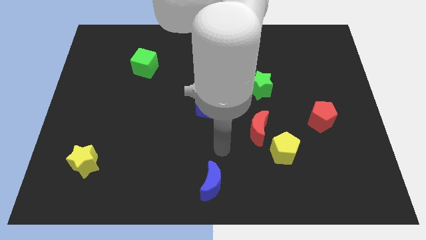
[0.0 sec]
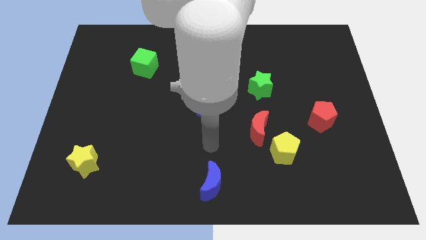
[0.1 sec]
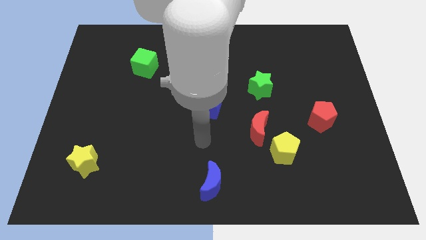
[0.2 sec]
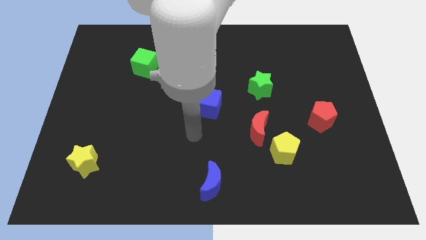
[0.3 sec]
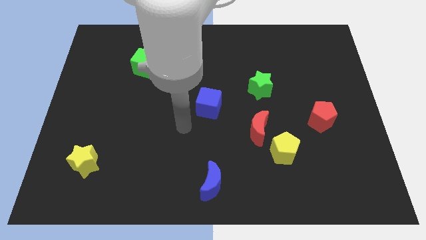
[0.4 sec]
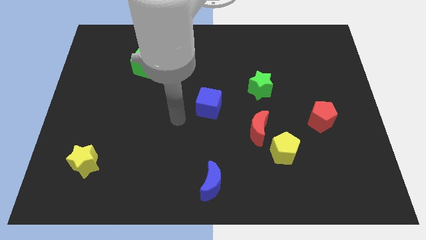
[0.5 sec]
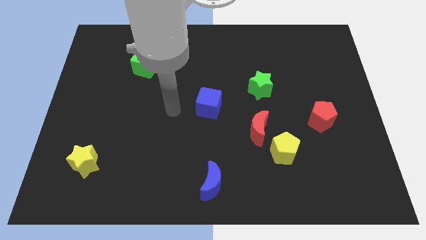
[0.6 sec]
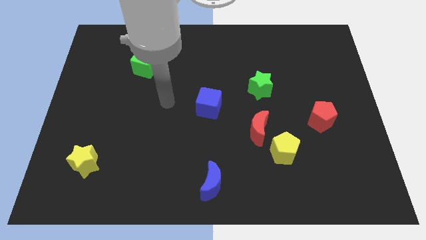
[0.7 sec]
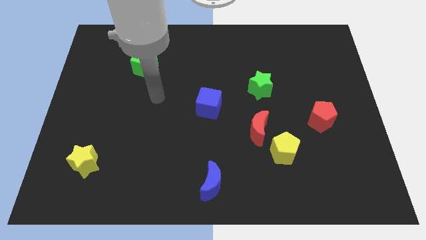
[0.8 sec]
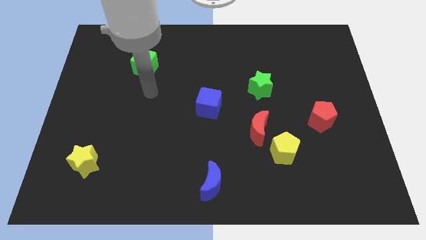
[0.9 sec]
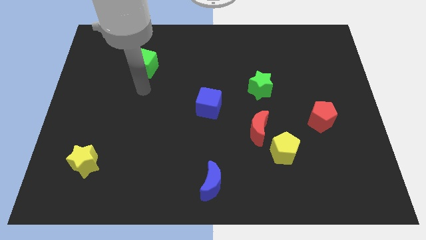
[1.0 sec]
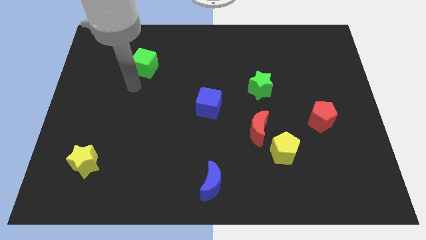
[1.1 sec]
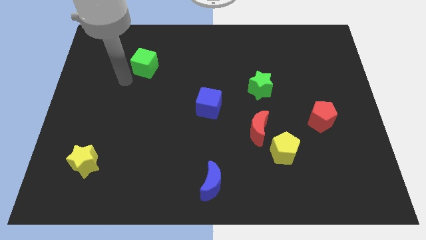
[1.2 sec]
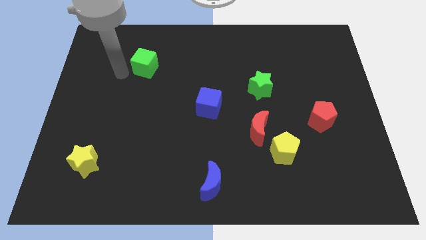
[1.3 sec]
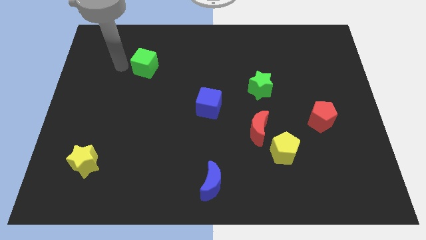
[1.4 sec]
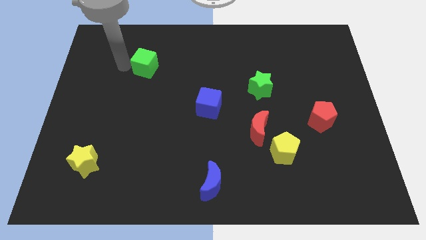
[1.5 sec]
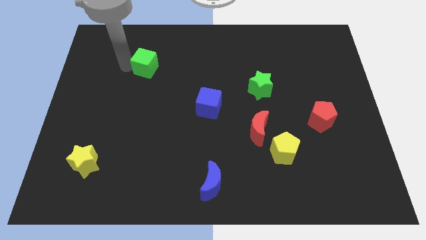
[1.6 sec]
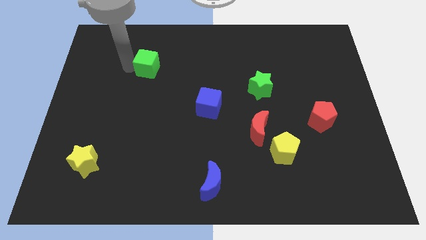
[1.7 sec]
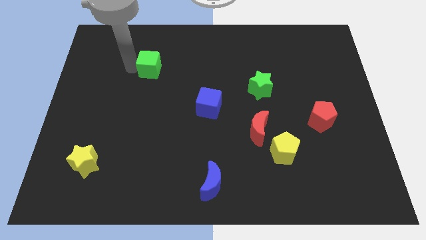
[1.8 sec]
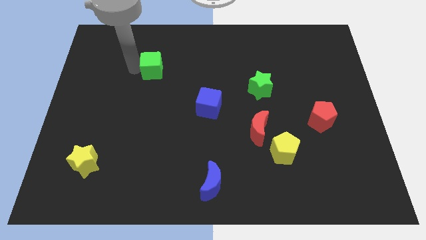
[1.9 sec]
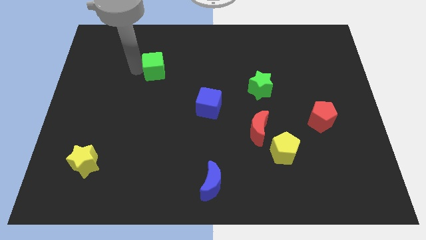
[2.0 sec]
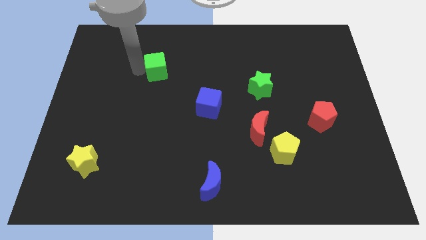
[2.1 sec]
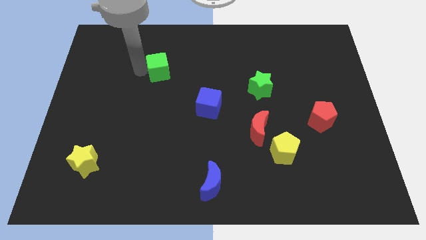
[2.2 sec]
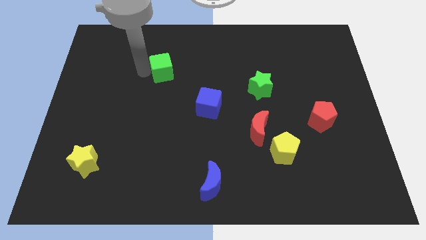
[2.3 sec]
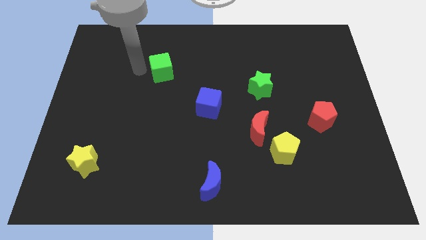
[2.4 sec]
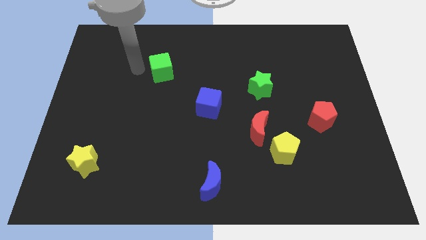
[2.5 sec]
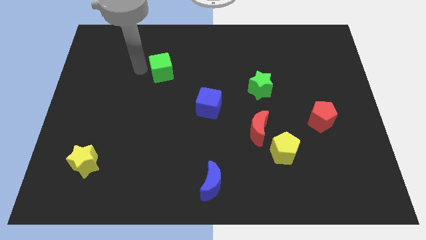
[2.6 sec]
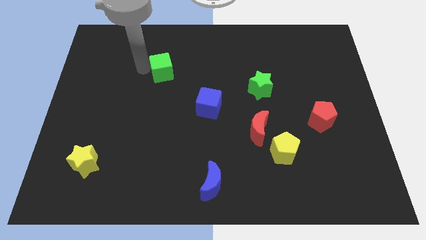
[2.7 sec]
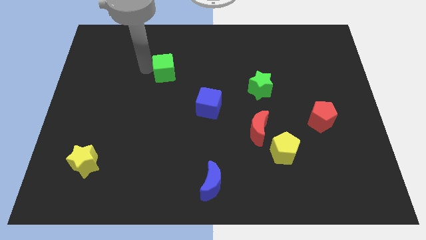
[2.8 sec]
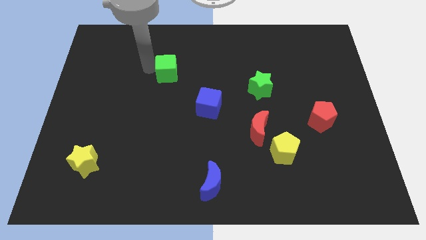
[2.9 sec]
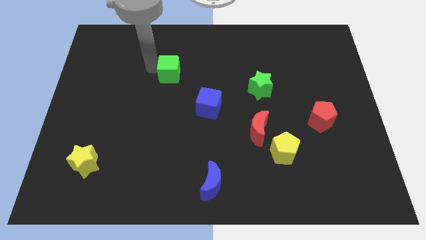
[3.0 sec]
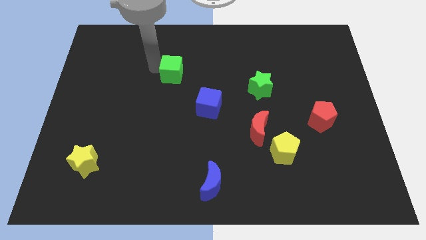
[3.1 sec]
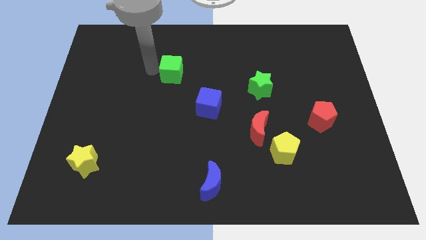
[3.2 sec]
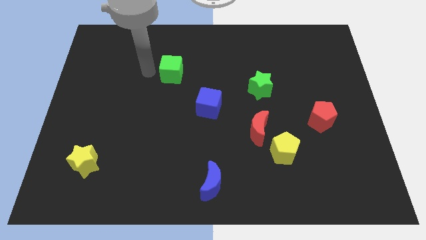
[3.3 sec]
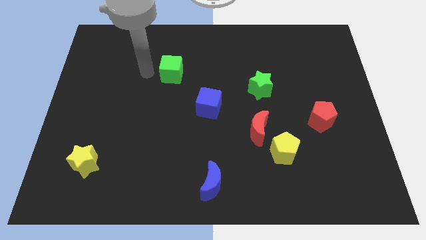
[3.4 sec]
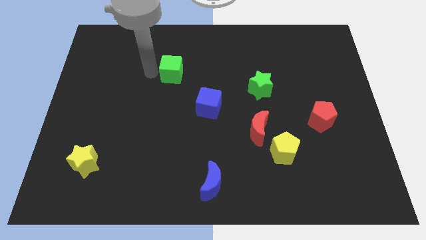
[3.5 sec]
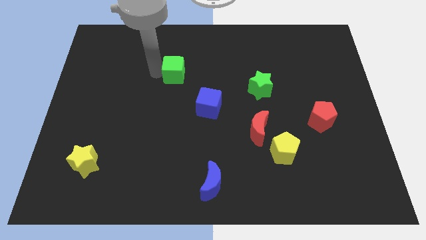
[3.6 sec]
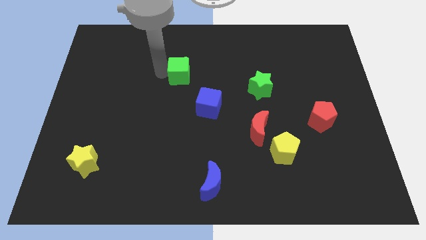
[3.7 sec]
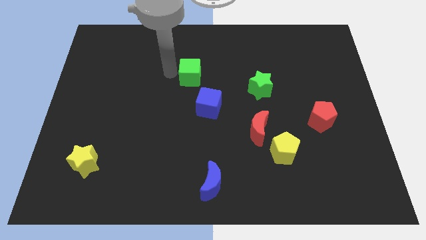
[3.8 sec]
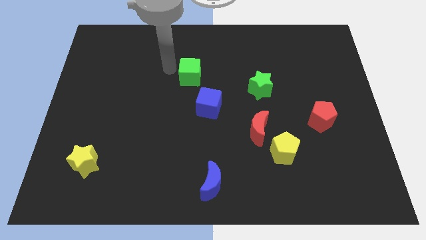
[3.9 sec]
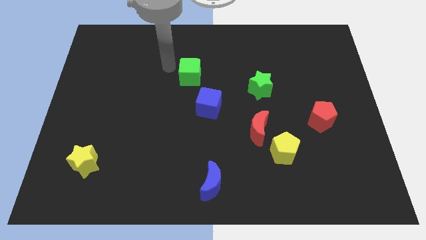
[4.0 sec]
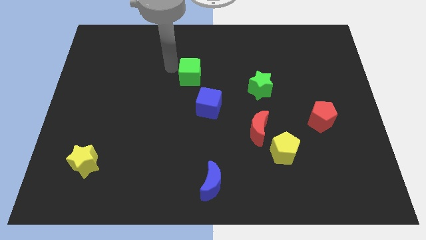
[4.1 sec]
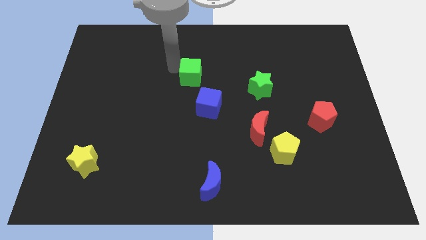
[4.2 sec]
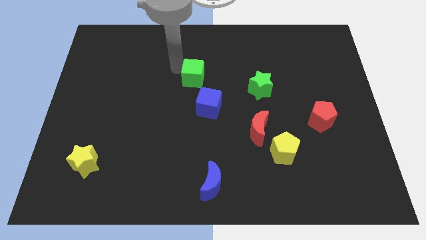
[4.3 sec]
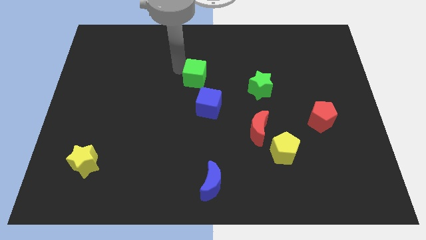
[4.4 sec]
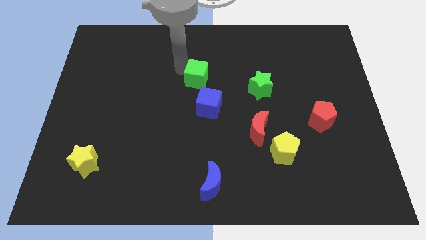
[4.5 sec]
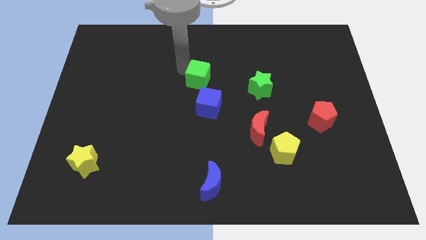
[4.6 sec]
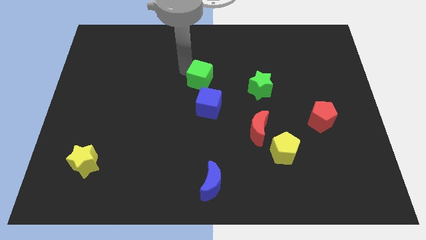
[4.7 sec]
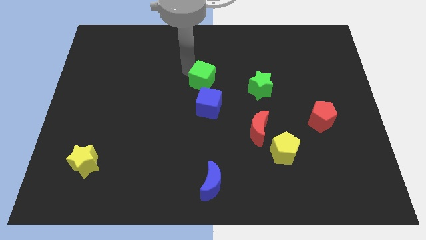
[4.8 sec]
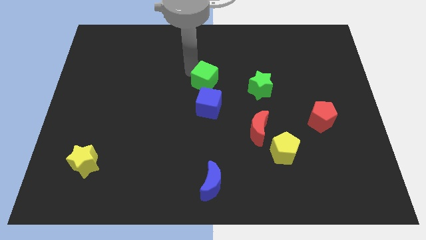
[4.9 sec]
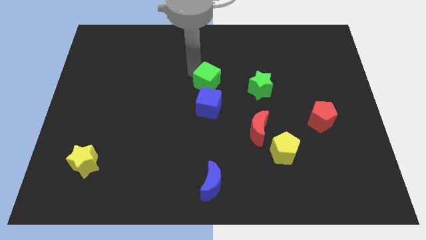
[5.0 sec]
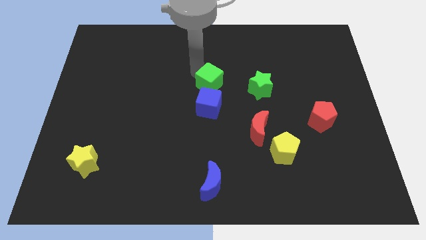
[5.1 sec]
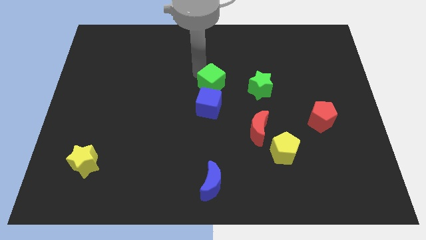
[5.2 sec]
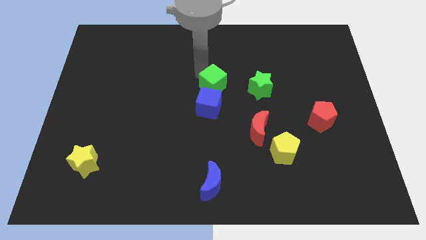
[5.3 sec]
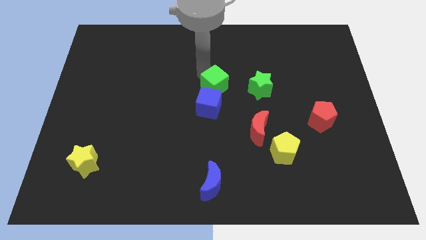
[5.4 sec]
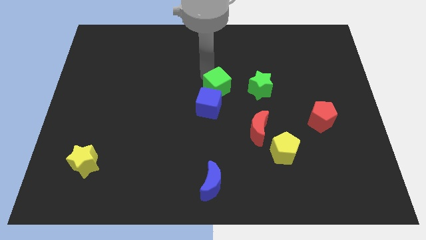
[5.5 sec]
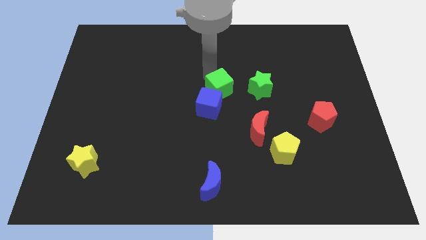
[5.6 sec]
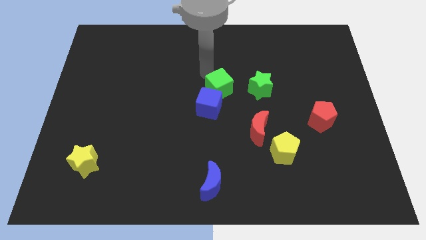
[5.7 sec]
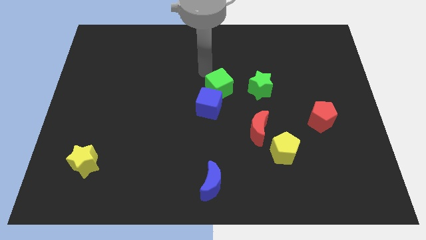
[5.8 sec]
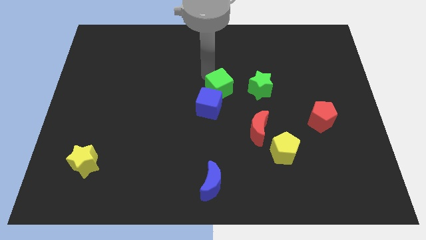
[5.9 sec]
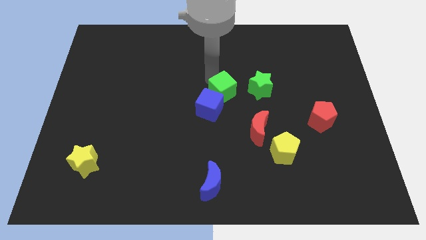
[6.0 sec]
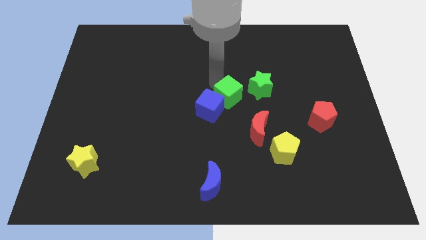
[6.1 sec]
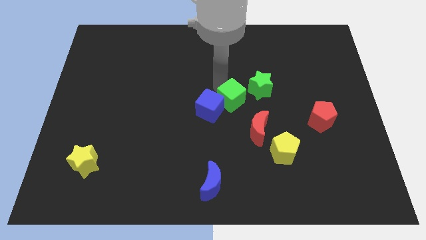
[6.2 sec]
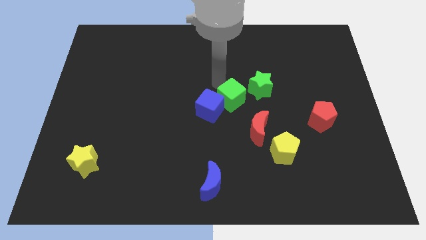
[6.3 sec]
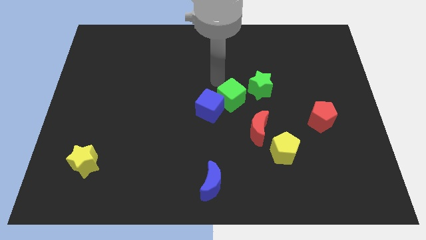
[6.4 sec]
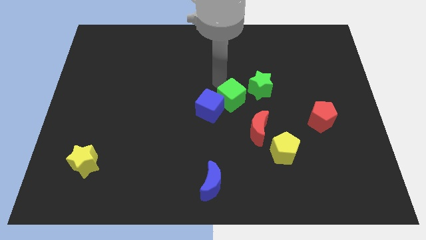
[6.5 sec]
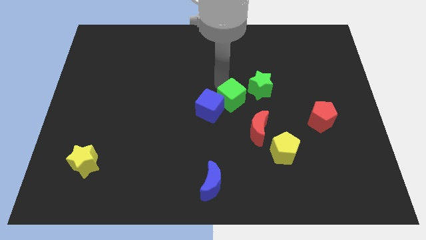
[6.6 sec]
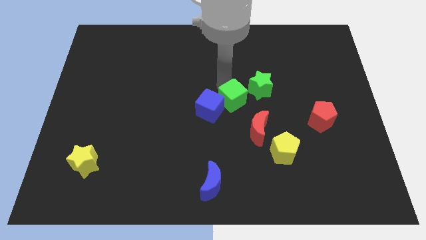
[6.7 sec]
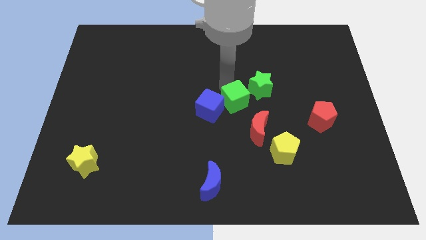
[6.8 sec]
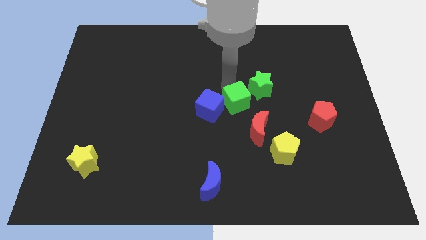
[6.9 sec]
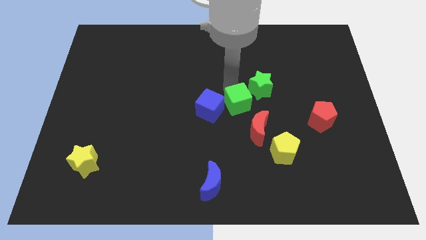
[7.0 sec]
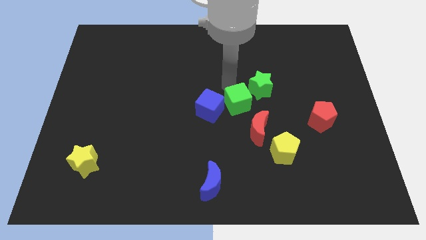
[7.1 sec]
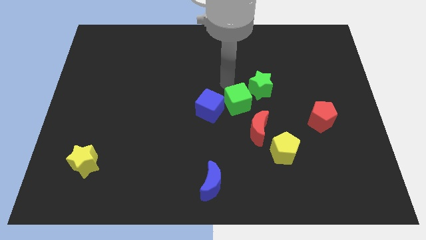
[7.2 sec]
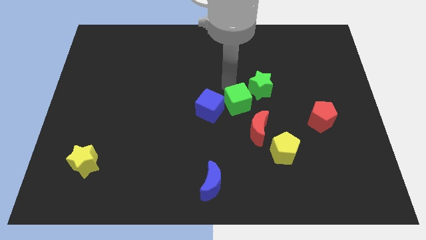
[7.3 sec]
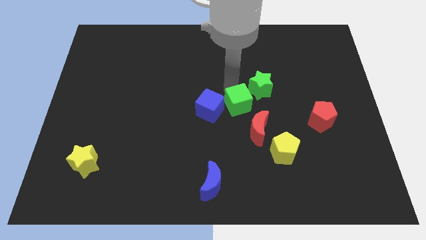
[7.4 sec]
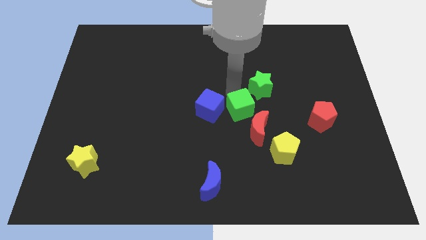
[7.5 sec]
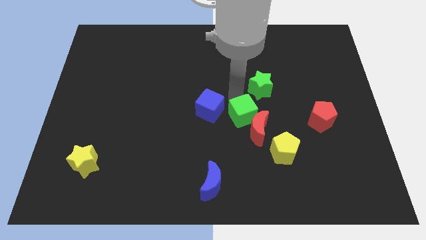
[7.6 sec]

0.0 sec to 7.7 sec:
put the green cube close to the red moon
